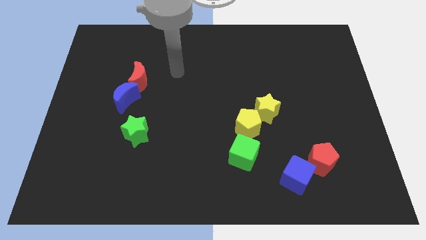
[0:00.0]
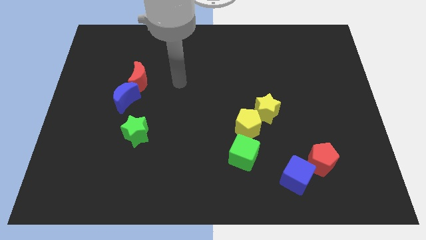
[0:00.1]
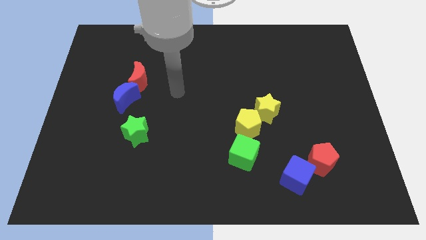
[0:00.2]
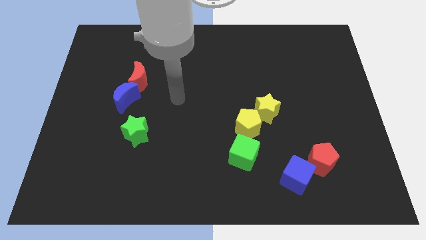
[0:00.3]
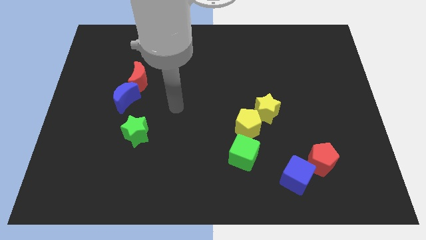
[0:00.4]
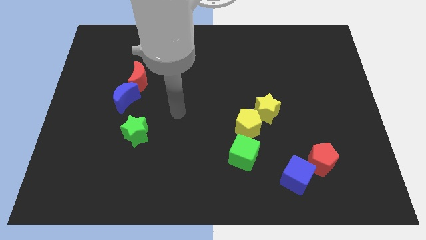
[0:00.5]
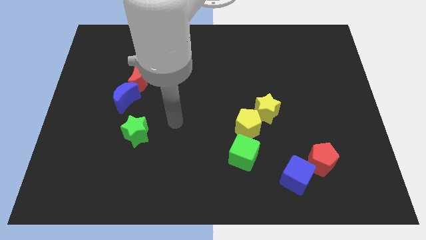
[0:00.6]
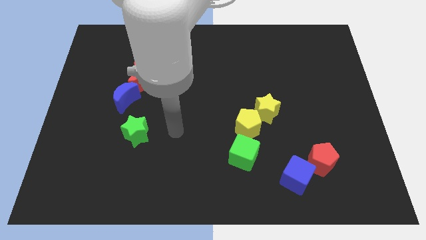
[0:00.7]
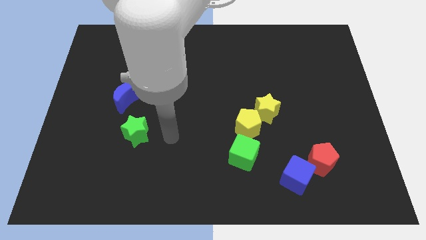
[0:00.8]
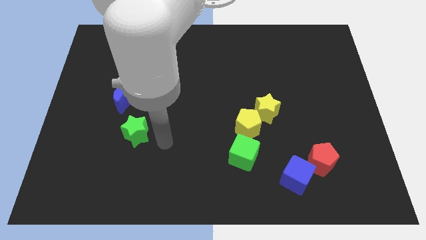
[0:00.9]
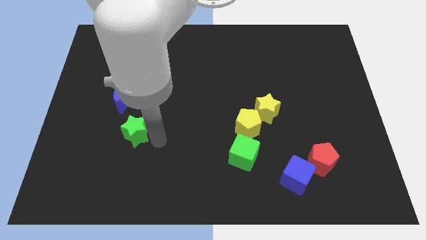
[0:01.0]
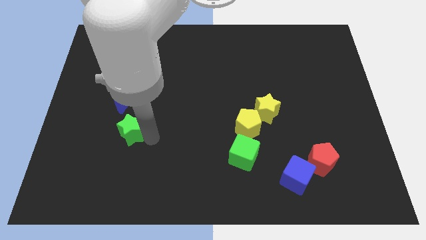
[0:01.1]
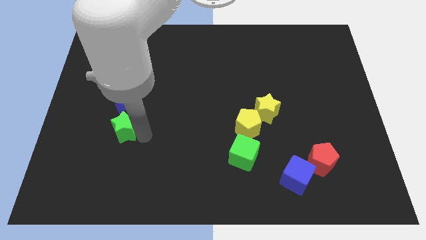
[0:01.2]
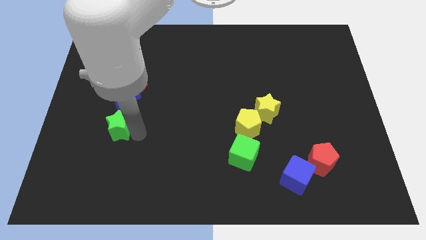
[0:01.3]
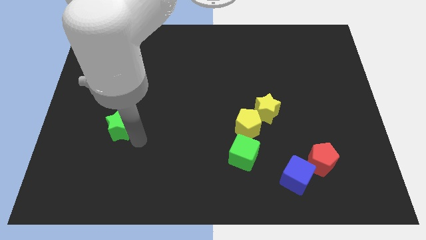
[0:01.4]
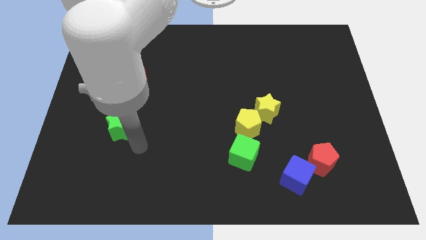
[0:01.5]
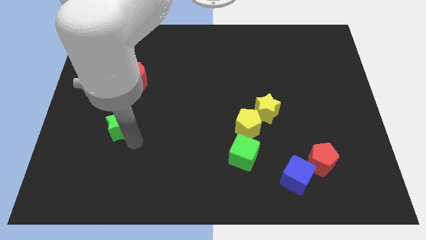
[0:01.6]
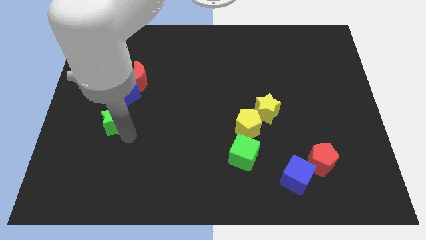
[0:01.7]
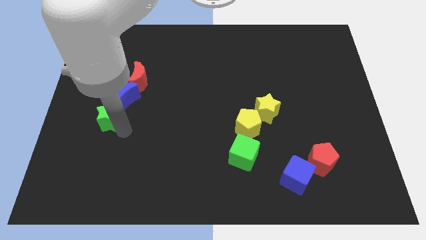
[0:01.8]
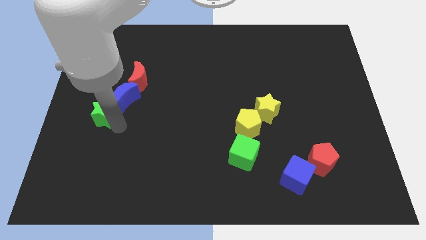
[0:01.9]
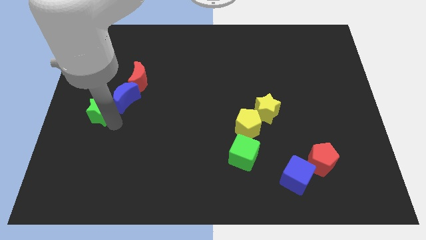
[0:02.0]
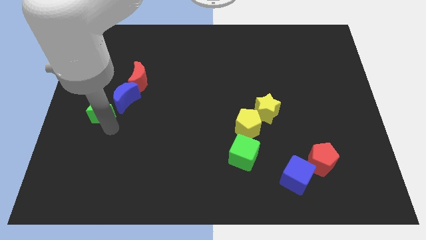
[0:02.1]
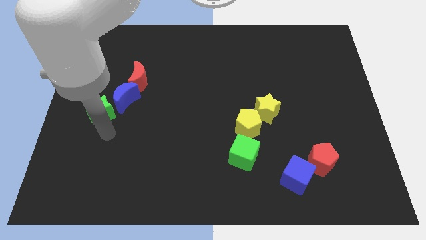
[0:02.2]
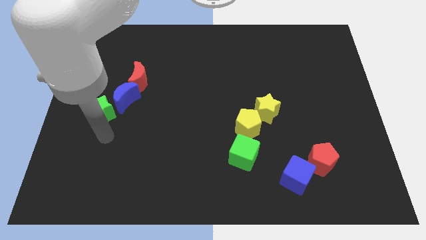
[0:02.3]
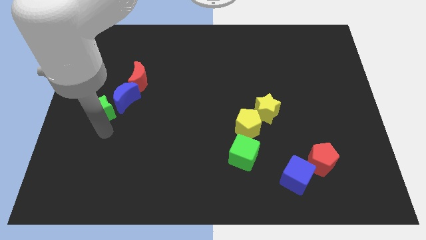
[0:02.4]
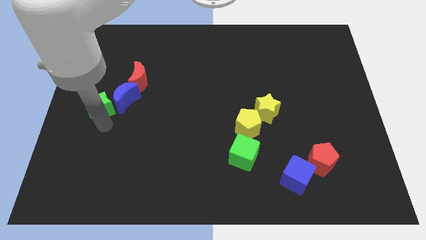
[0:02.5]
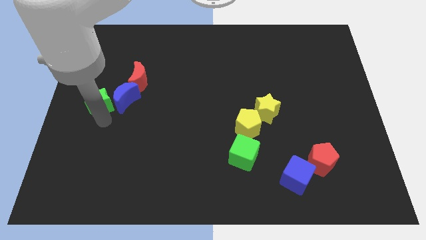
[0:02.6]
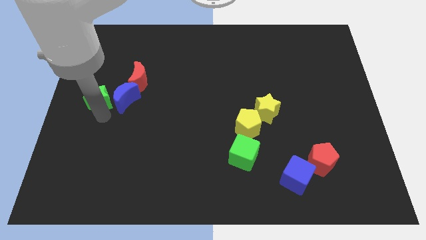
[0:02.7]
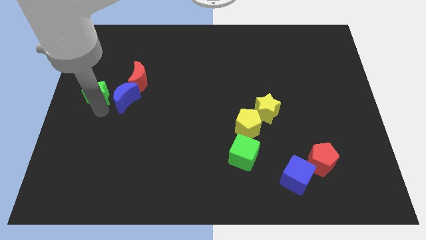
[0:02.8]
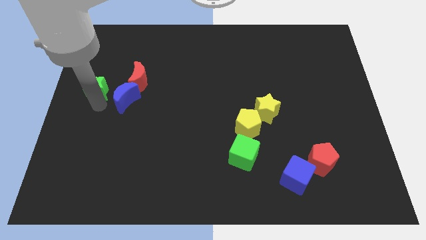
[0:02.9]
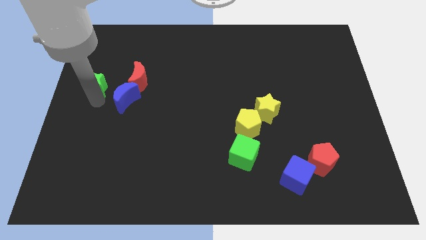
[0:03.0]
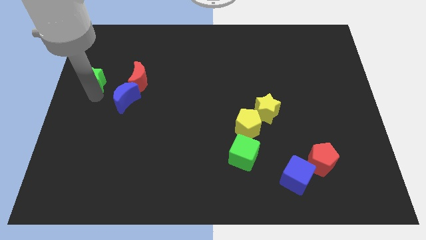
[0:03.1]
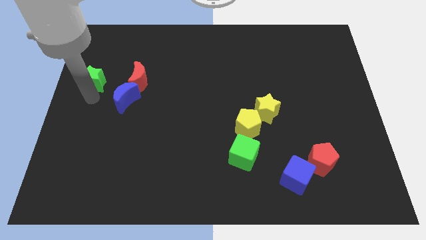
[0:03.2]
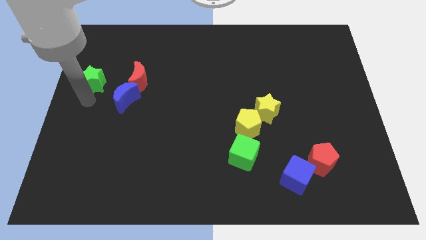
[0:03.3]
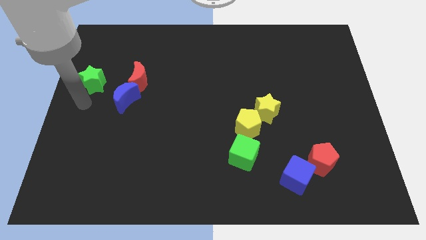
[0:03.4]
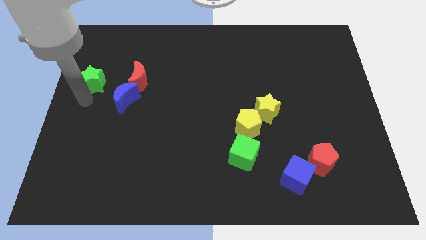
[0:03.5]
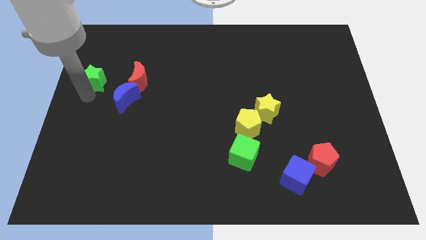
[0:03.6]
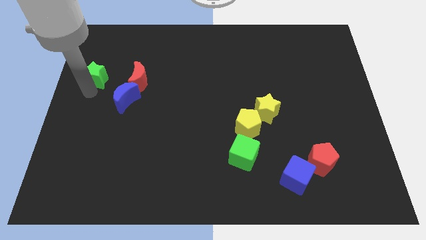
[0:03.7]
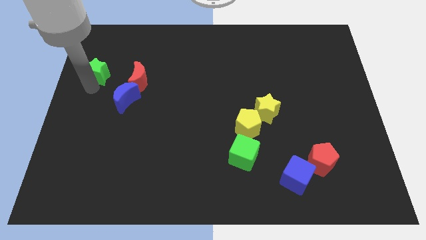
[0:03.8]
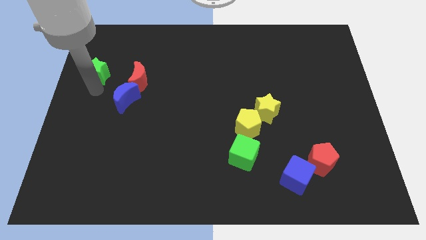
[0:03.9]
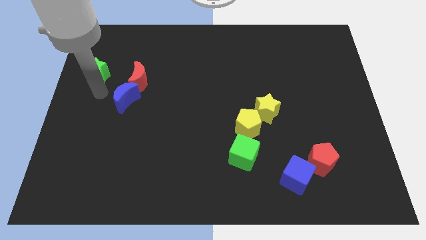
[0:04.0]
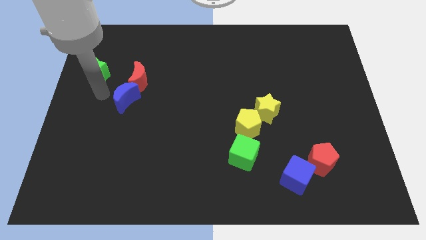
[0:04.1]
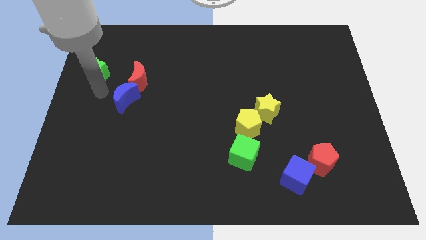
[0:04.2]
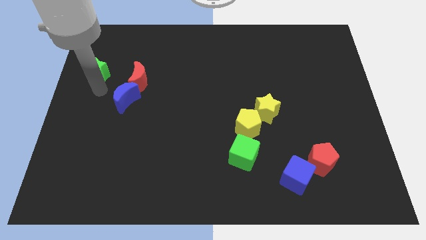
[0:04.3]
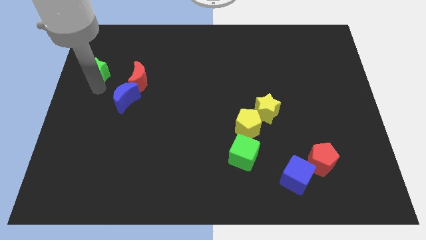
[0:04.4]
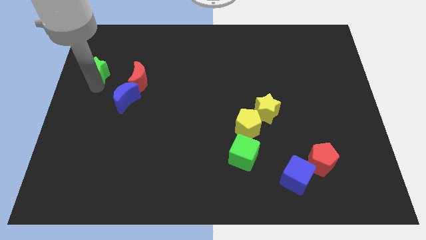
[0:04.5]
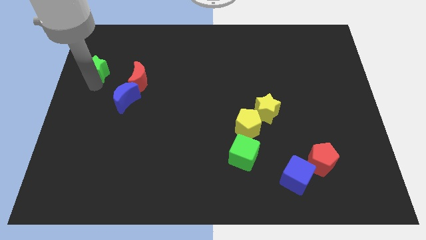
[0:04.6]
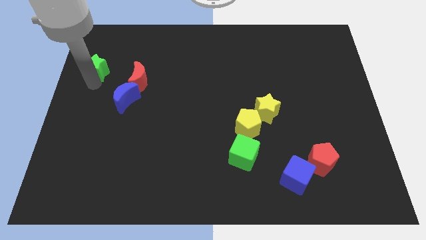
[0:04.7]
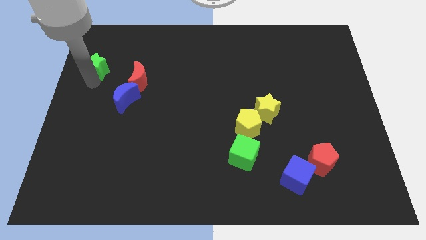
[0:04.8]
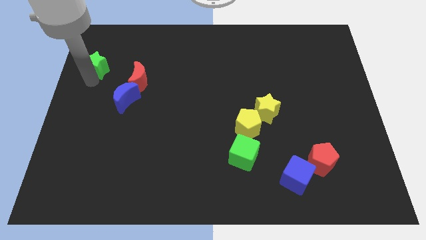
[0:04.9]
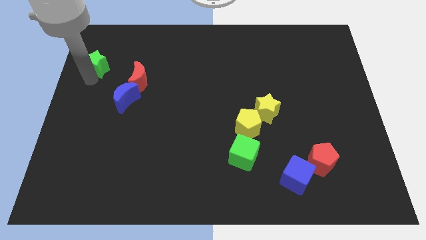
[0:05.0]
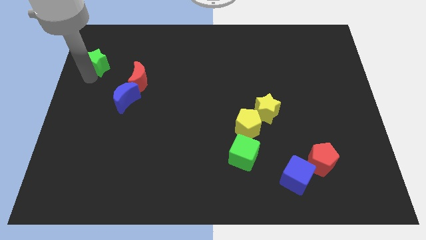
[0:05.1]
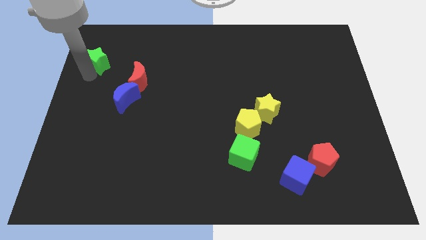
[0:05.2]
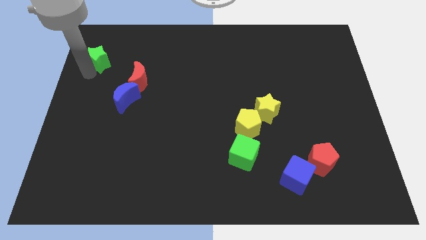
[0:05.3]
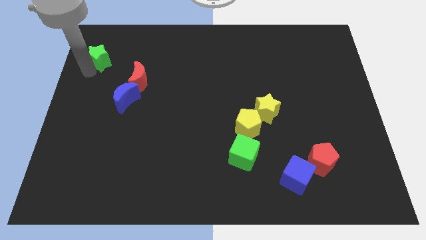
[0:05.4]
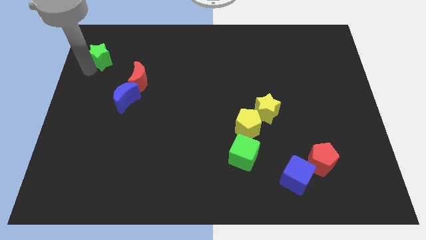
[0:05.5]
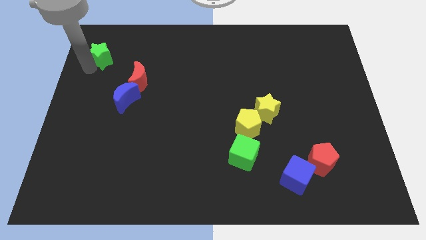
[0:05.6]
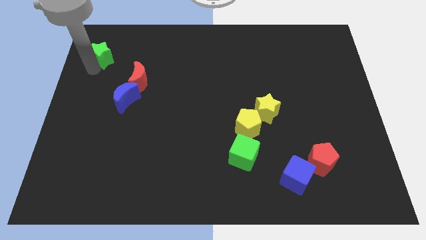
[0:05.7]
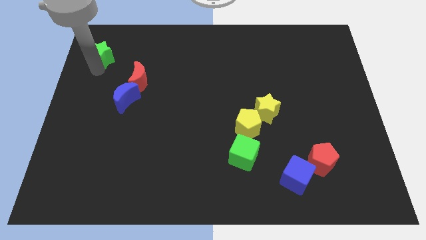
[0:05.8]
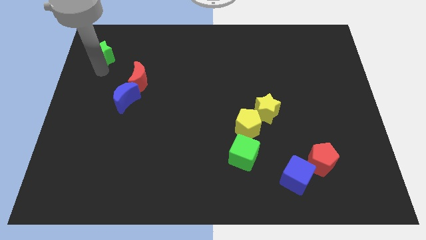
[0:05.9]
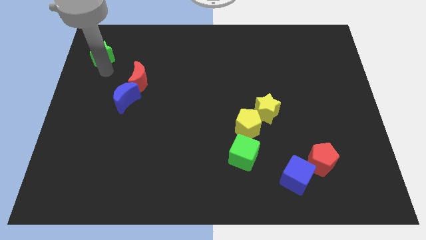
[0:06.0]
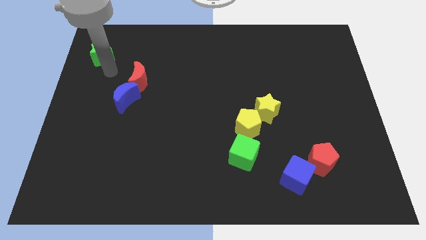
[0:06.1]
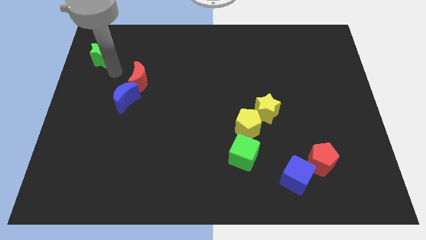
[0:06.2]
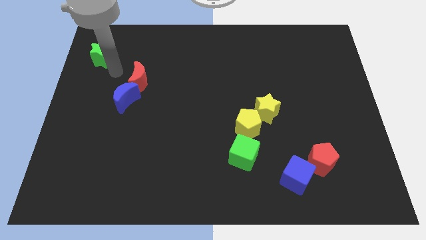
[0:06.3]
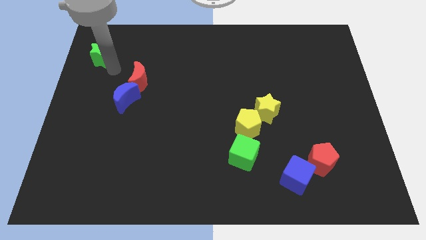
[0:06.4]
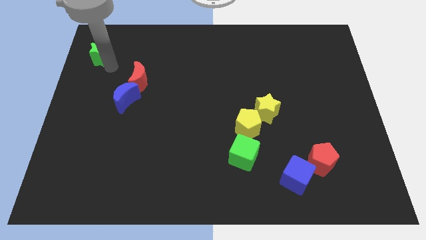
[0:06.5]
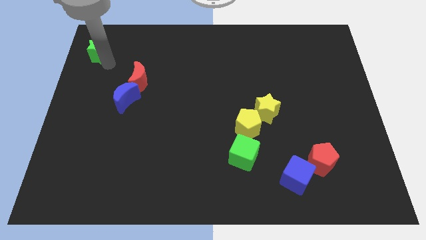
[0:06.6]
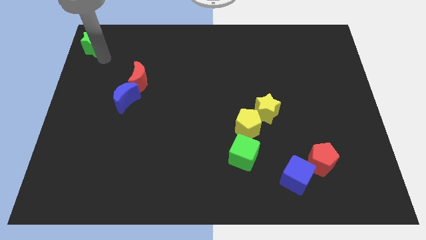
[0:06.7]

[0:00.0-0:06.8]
move the green star to the top left
